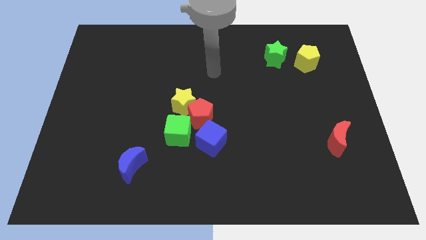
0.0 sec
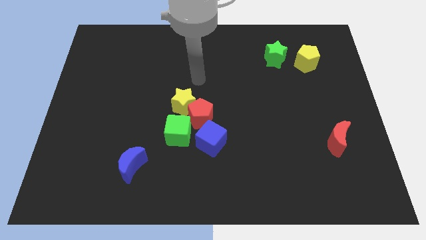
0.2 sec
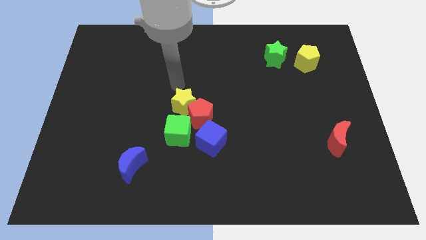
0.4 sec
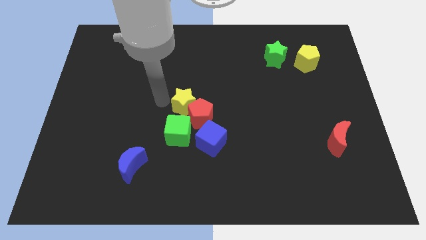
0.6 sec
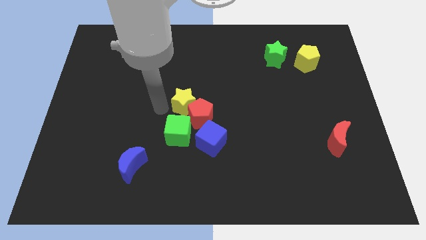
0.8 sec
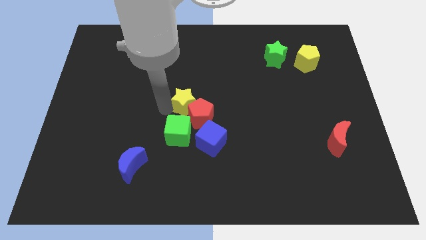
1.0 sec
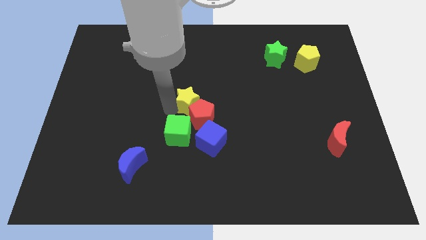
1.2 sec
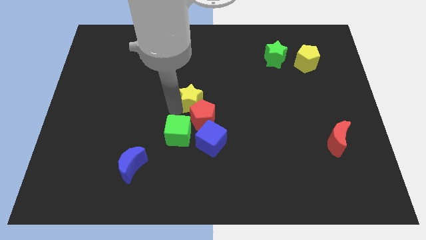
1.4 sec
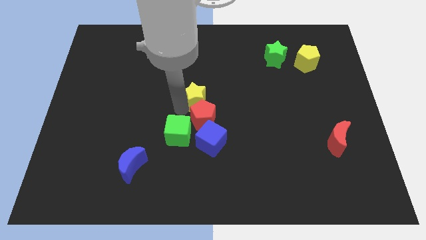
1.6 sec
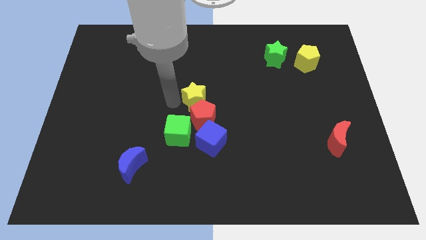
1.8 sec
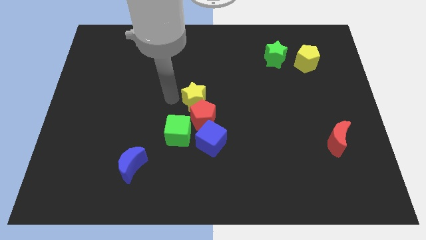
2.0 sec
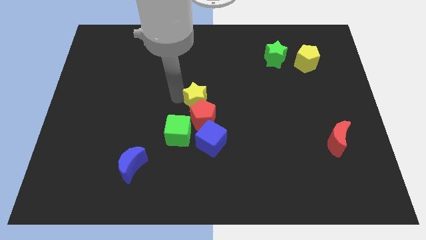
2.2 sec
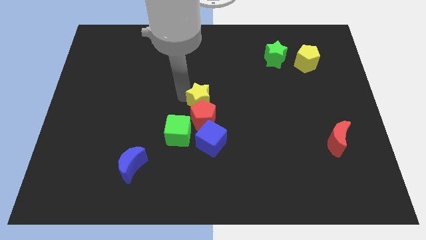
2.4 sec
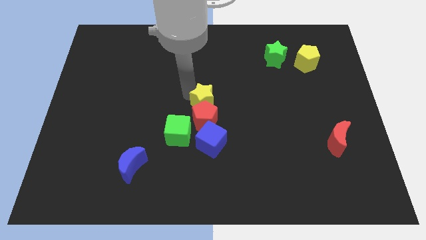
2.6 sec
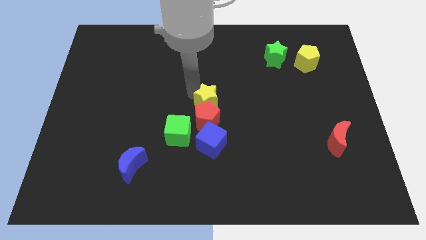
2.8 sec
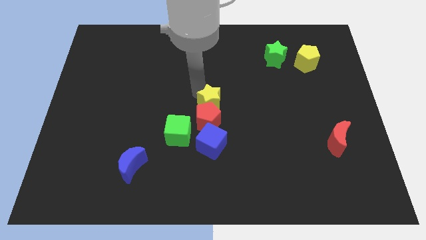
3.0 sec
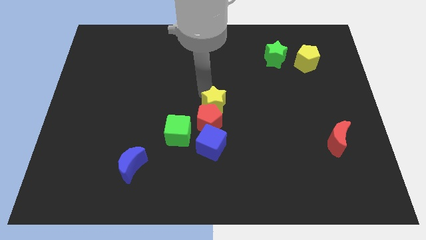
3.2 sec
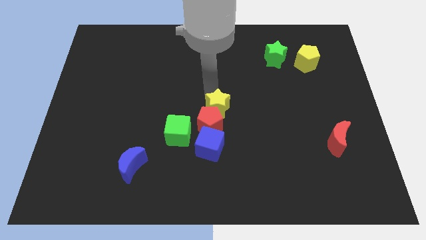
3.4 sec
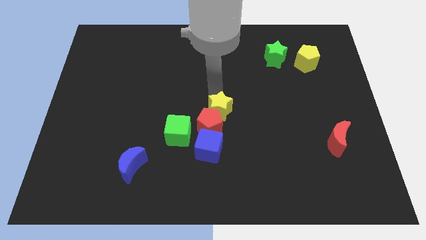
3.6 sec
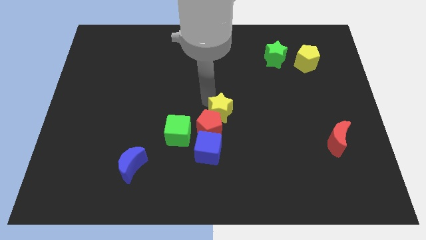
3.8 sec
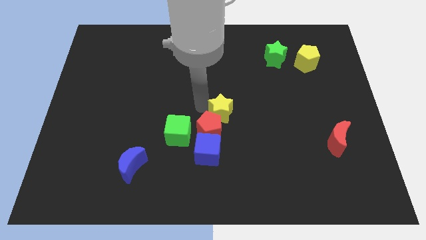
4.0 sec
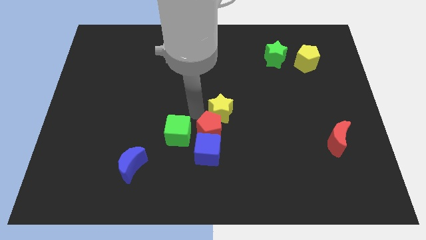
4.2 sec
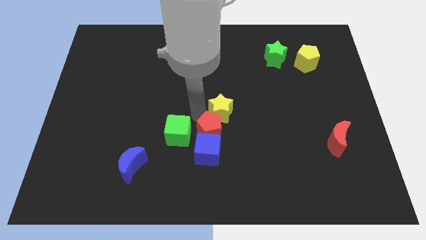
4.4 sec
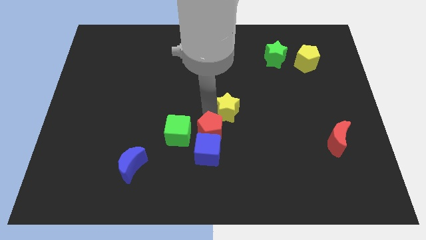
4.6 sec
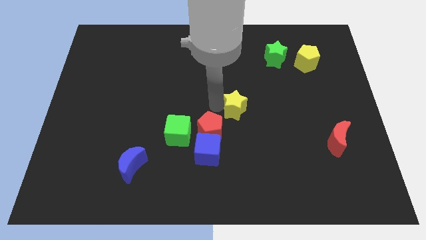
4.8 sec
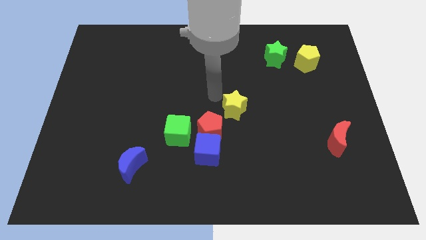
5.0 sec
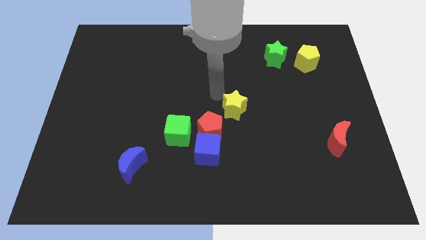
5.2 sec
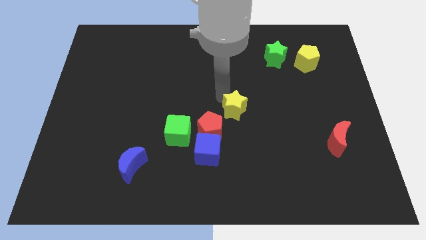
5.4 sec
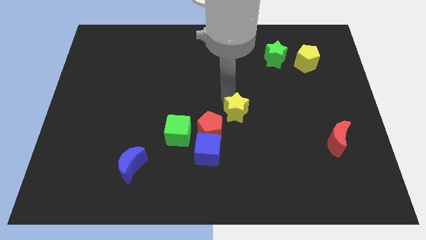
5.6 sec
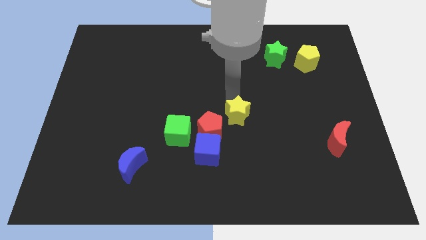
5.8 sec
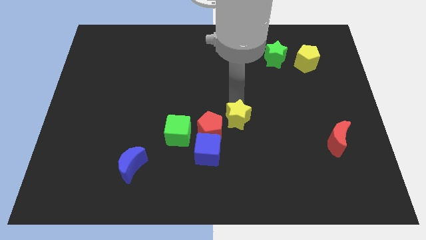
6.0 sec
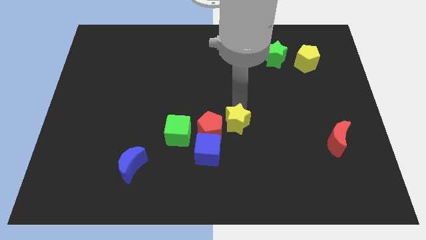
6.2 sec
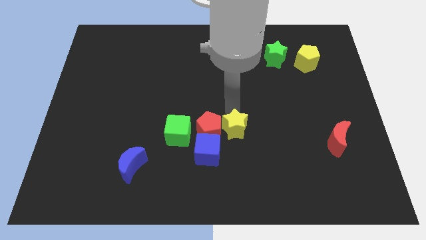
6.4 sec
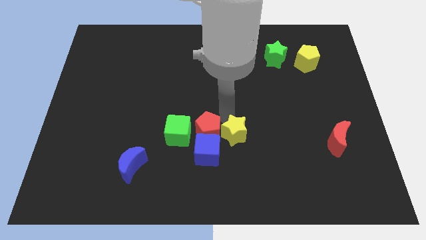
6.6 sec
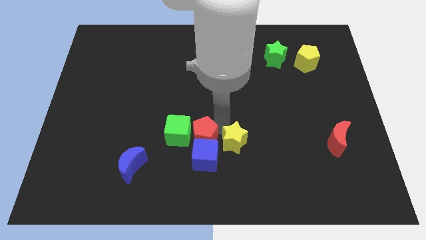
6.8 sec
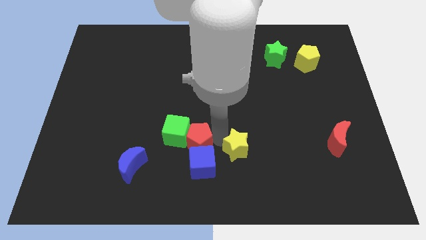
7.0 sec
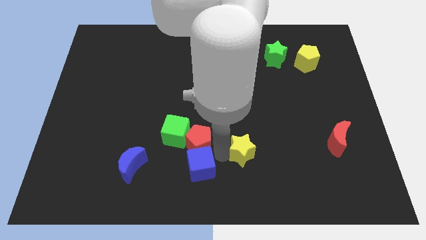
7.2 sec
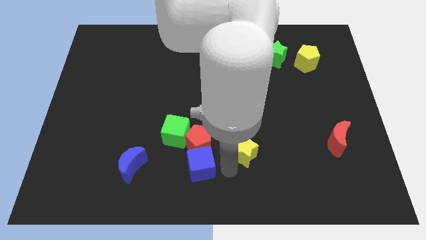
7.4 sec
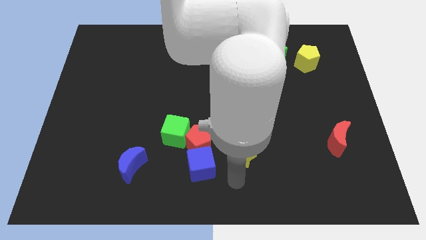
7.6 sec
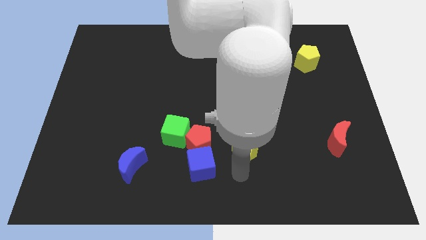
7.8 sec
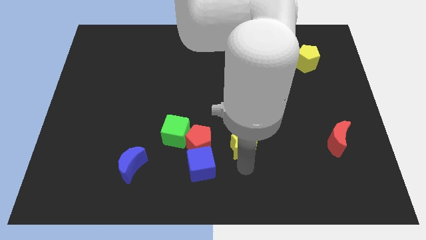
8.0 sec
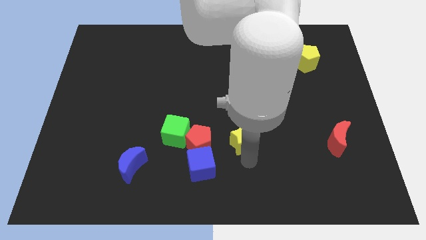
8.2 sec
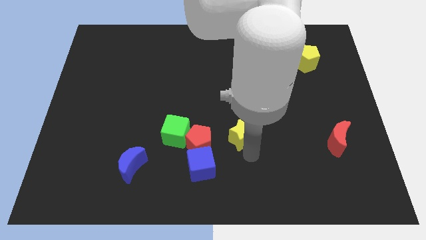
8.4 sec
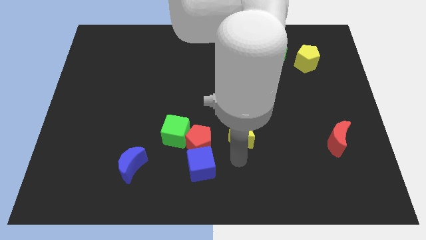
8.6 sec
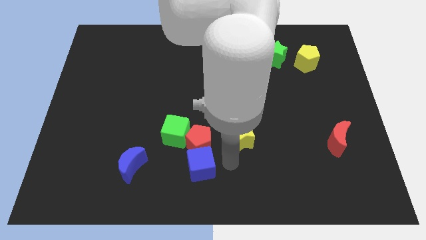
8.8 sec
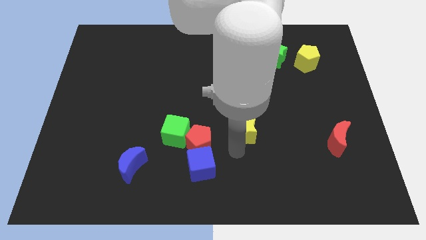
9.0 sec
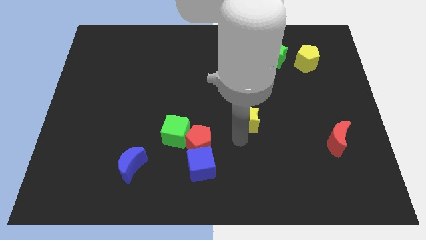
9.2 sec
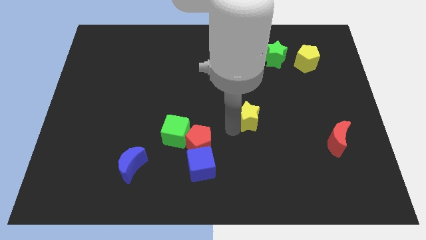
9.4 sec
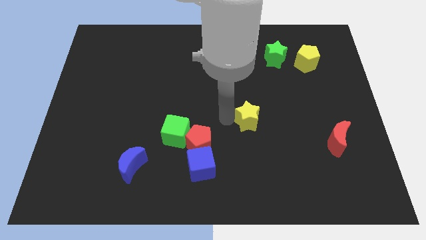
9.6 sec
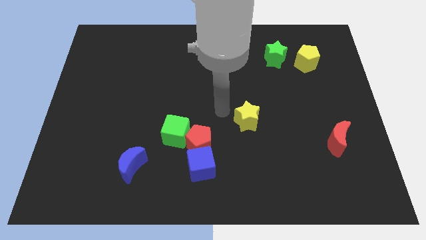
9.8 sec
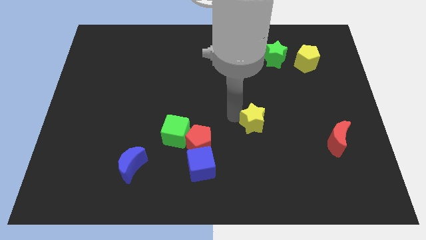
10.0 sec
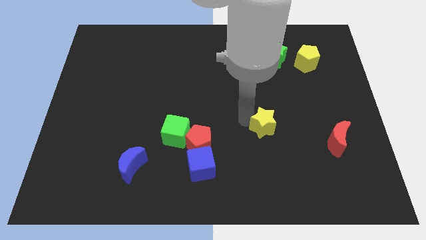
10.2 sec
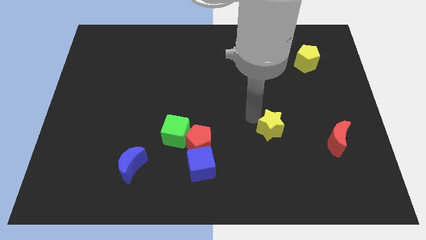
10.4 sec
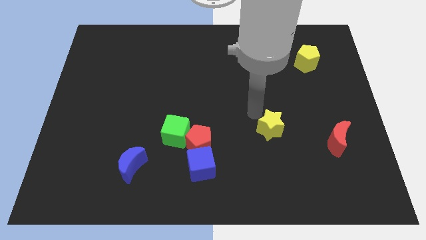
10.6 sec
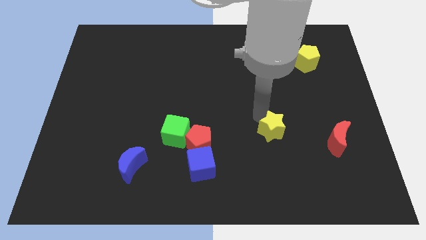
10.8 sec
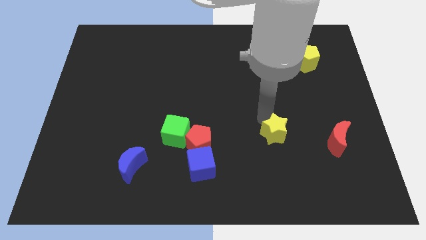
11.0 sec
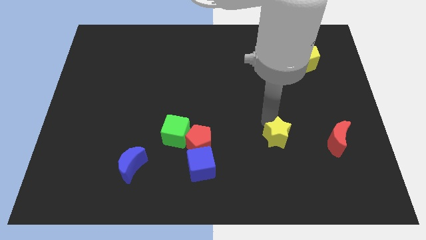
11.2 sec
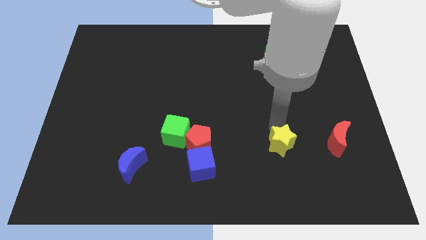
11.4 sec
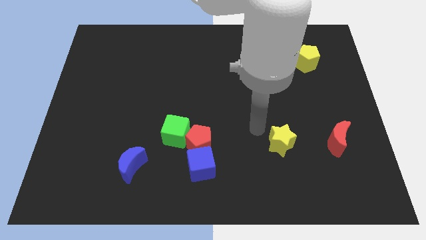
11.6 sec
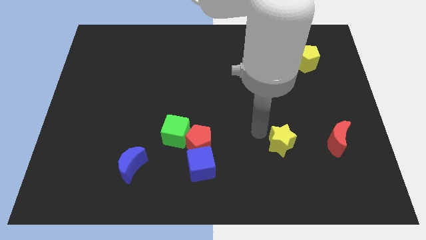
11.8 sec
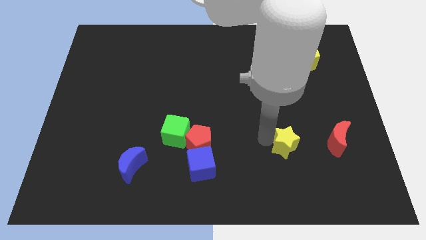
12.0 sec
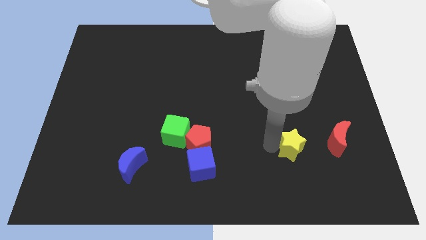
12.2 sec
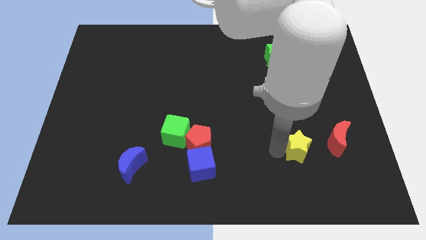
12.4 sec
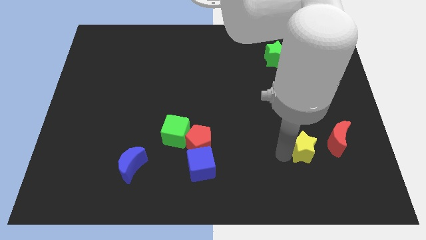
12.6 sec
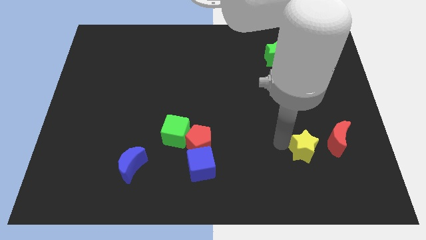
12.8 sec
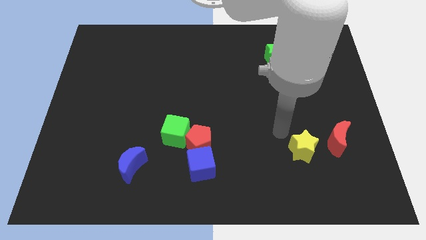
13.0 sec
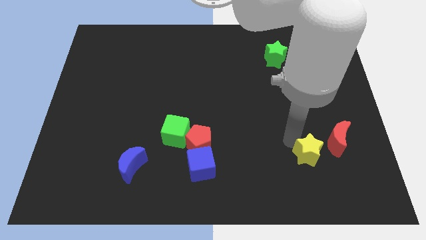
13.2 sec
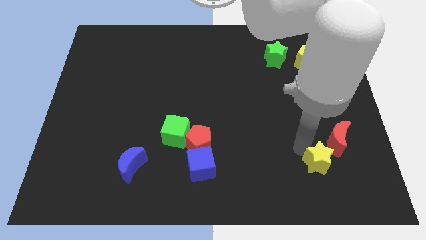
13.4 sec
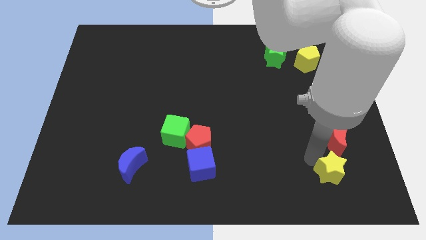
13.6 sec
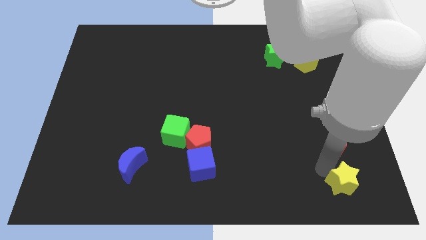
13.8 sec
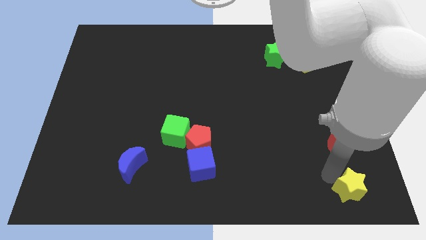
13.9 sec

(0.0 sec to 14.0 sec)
slide the yellow star to the bottom right corner
